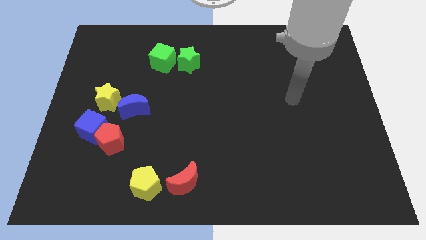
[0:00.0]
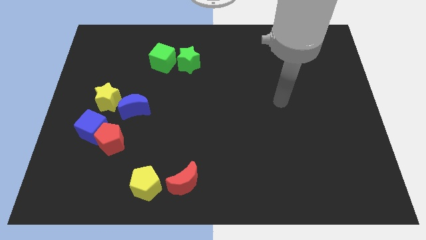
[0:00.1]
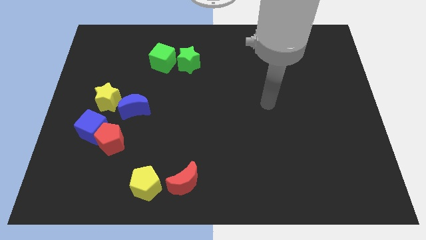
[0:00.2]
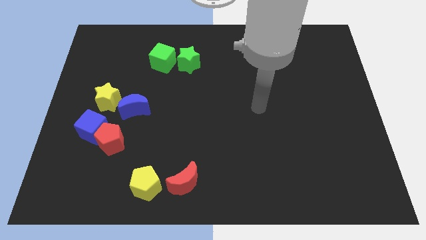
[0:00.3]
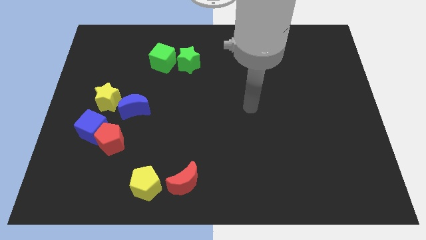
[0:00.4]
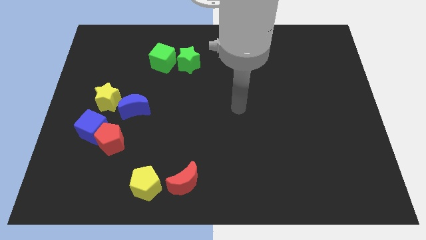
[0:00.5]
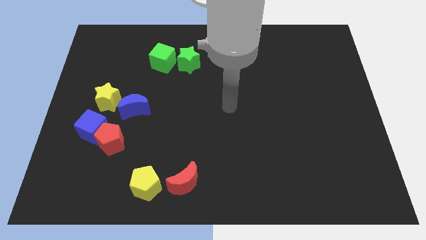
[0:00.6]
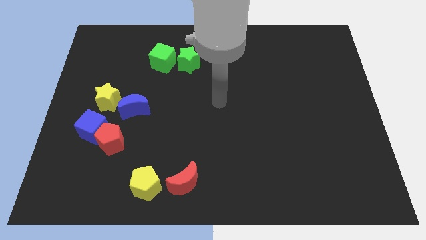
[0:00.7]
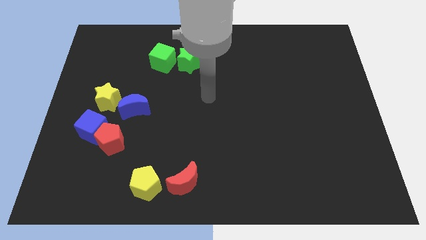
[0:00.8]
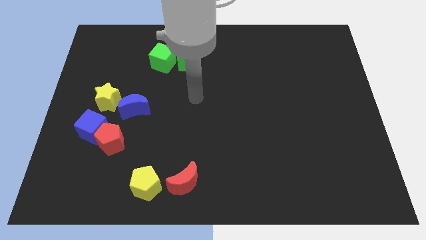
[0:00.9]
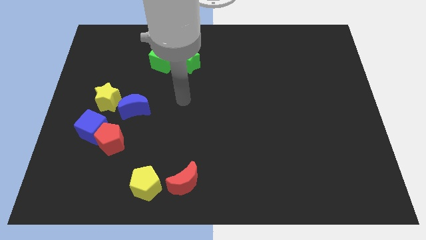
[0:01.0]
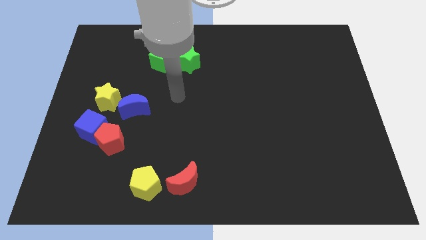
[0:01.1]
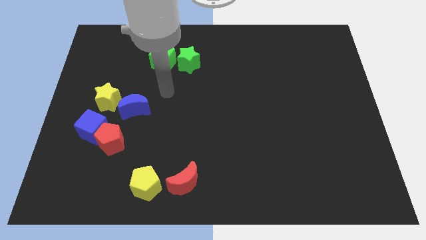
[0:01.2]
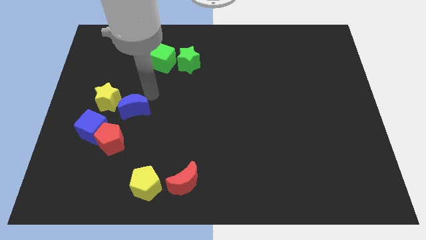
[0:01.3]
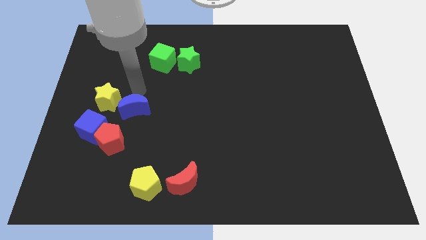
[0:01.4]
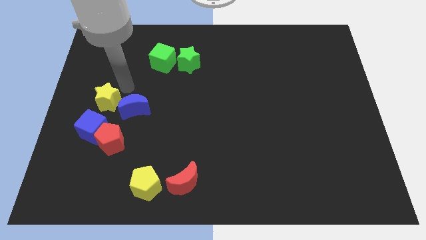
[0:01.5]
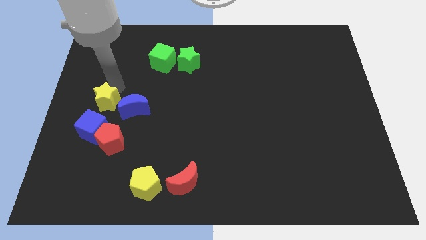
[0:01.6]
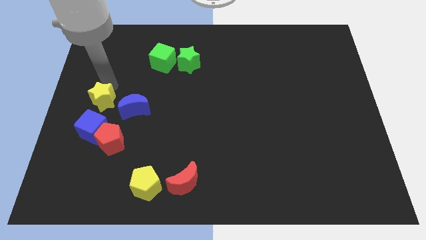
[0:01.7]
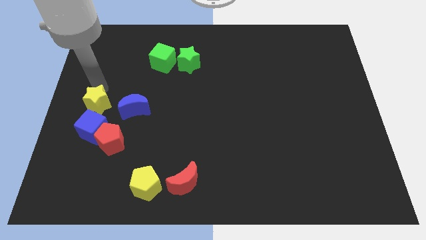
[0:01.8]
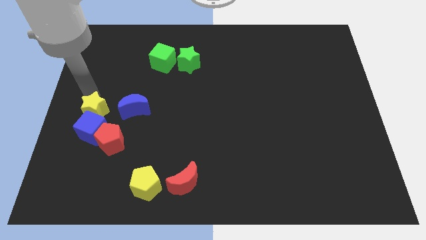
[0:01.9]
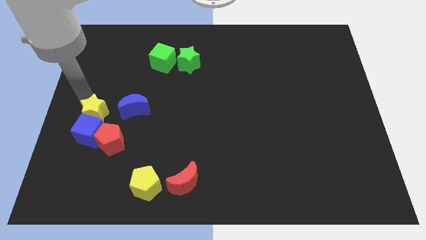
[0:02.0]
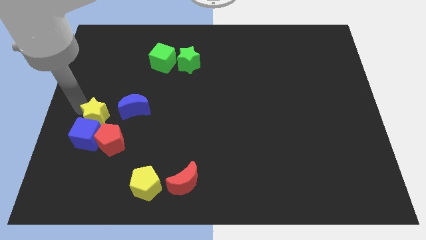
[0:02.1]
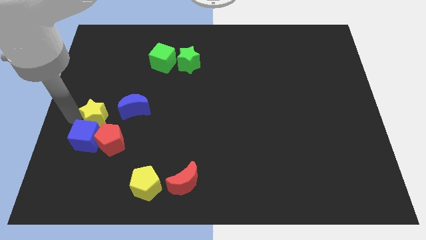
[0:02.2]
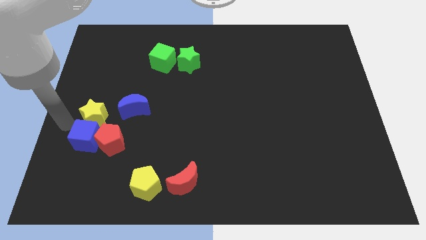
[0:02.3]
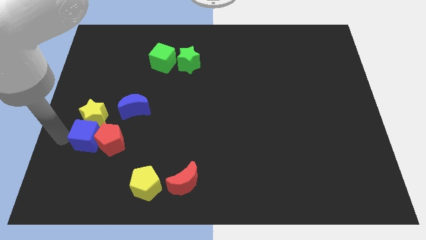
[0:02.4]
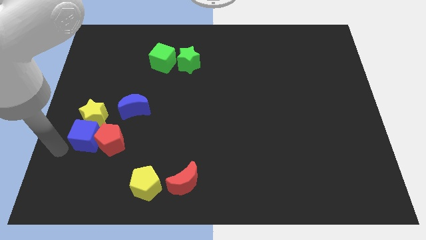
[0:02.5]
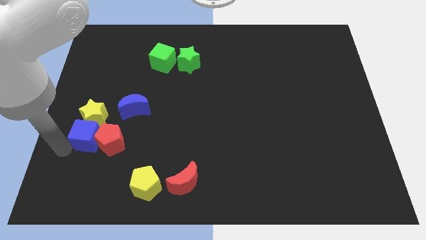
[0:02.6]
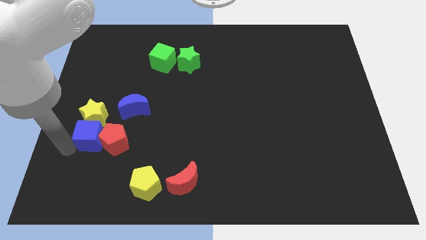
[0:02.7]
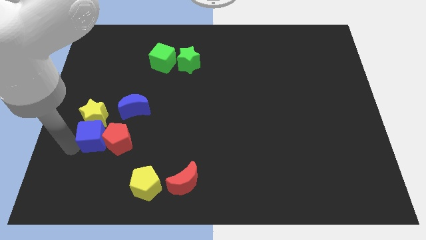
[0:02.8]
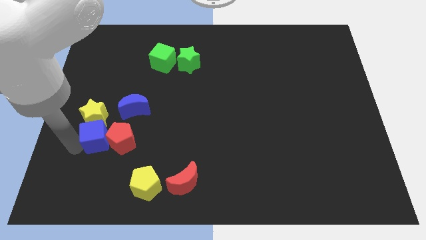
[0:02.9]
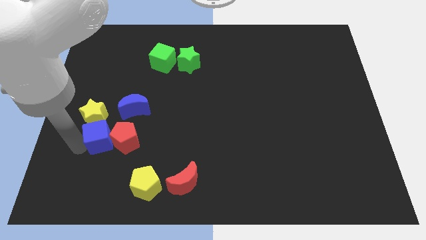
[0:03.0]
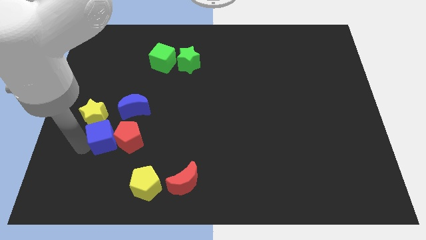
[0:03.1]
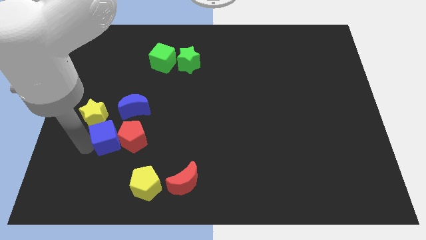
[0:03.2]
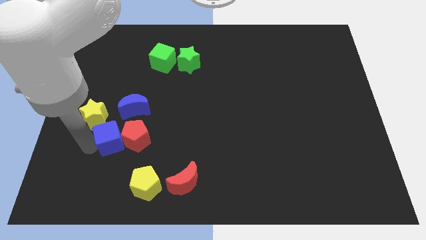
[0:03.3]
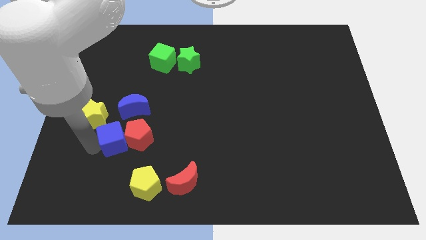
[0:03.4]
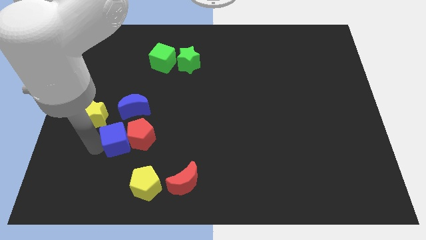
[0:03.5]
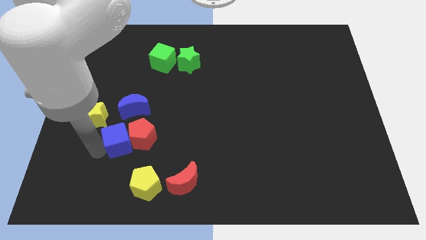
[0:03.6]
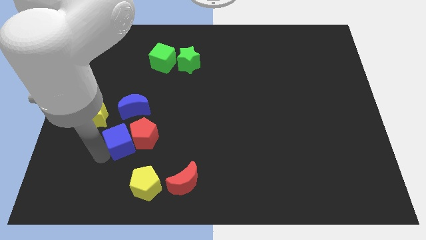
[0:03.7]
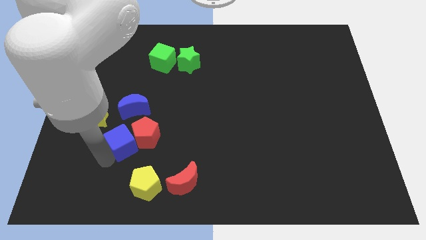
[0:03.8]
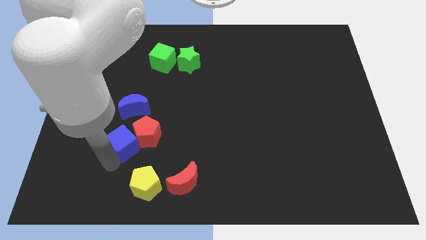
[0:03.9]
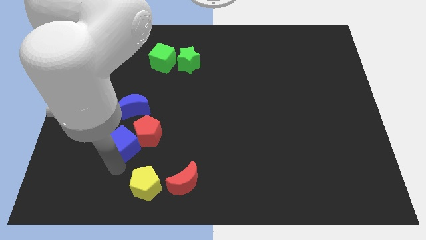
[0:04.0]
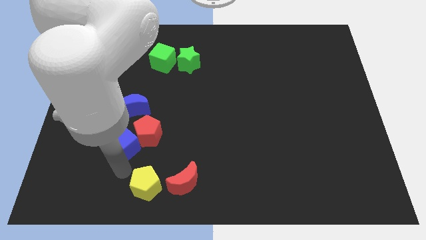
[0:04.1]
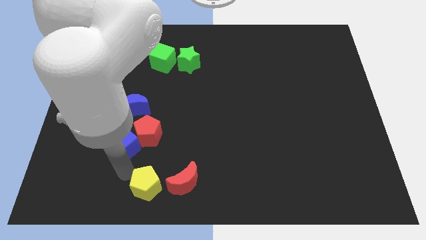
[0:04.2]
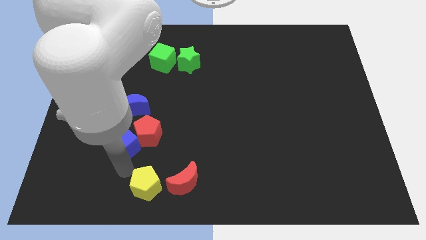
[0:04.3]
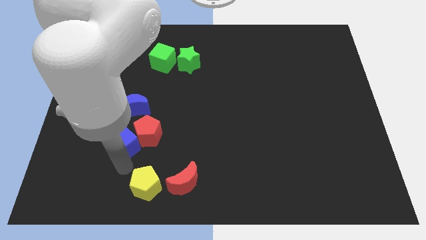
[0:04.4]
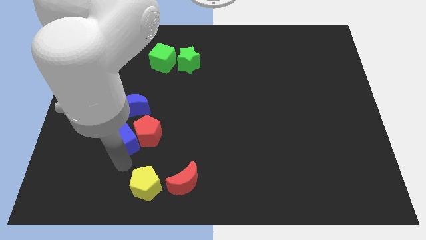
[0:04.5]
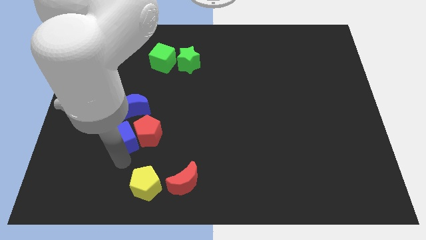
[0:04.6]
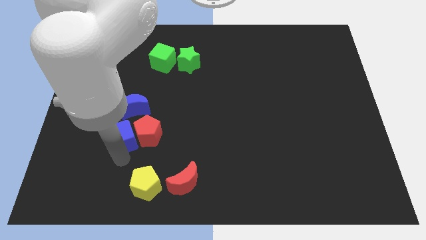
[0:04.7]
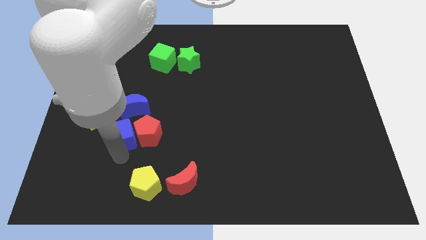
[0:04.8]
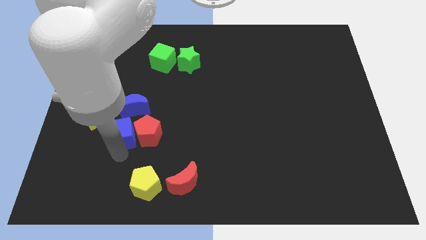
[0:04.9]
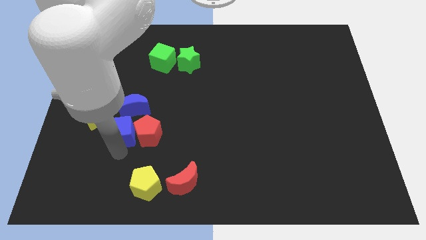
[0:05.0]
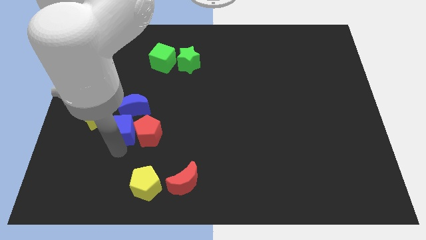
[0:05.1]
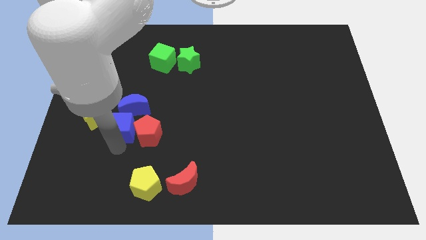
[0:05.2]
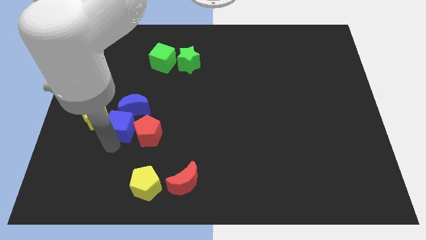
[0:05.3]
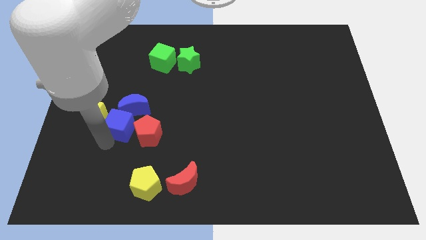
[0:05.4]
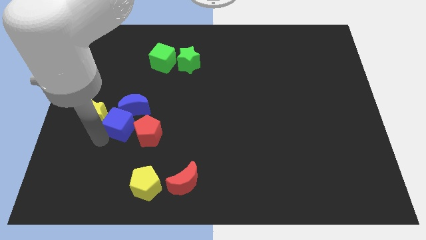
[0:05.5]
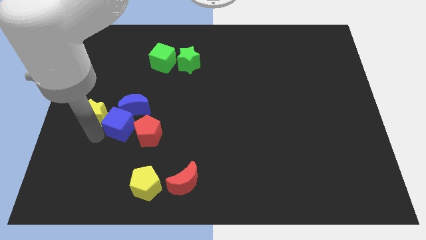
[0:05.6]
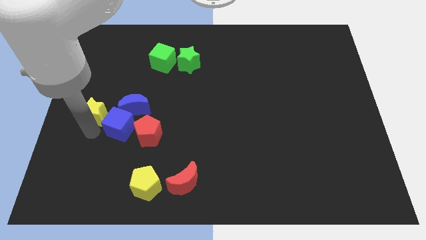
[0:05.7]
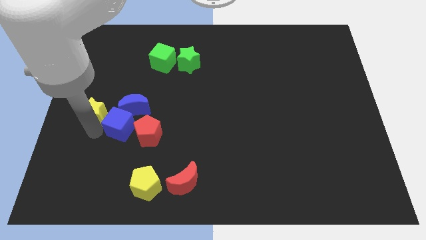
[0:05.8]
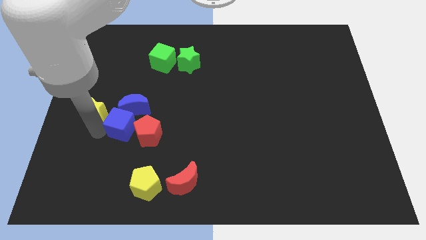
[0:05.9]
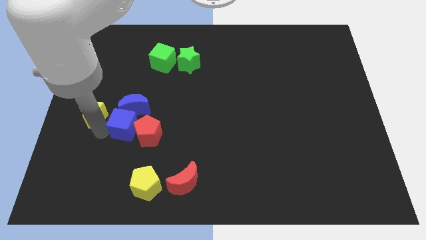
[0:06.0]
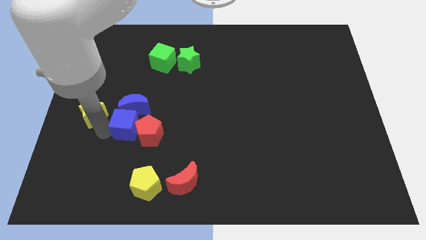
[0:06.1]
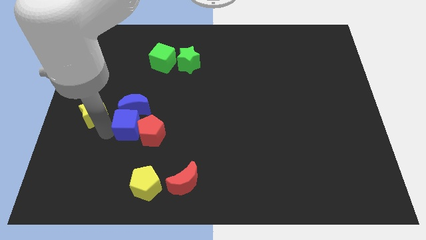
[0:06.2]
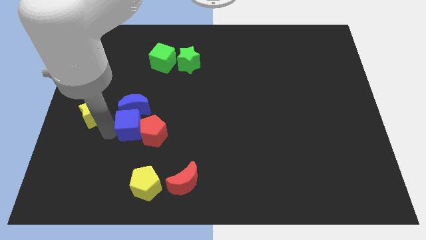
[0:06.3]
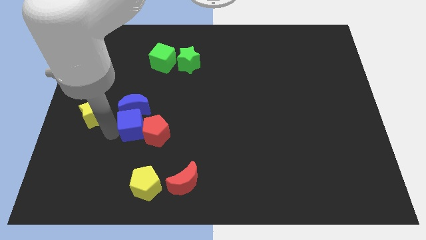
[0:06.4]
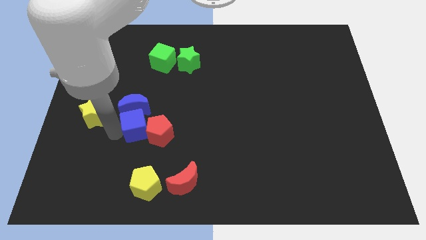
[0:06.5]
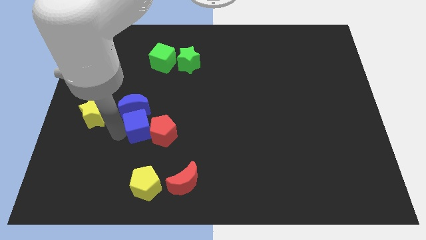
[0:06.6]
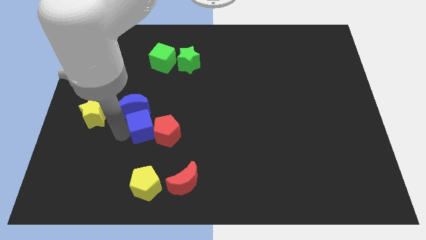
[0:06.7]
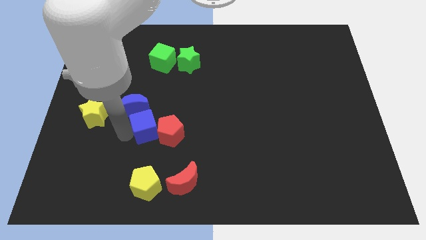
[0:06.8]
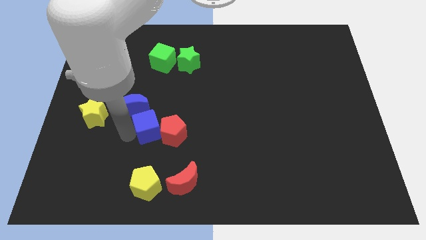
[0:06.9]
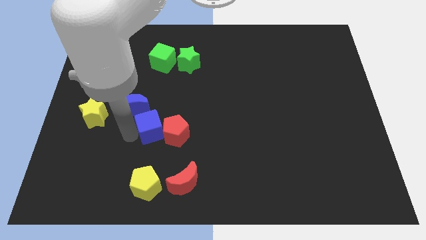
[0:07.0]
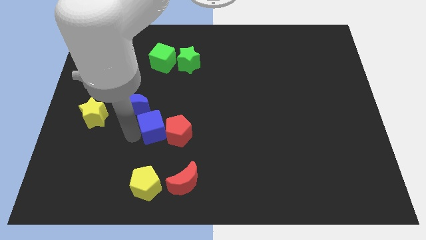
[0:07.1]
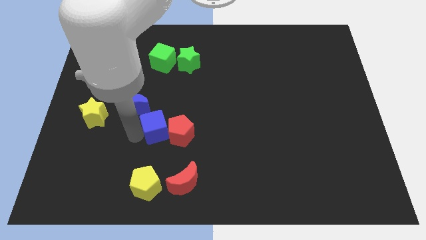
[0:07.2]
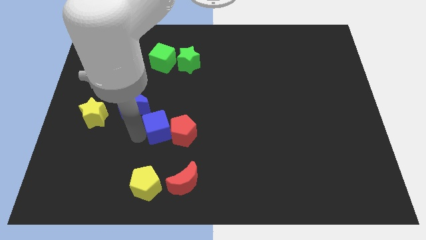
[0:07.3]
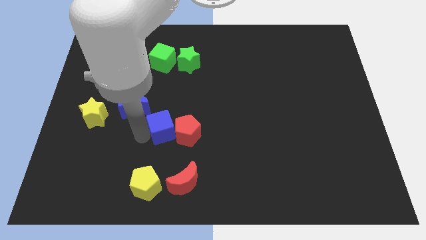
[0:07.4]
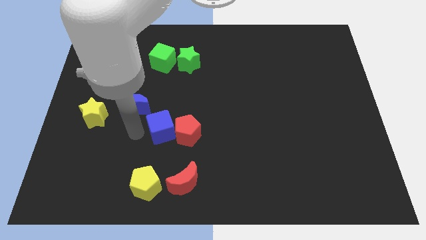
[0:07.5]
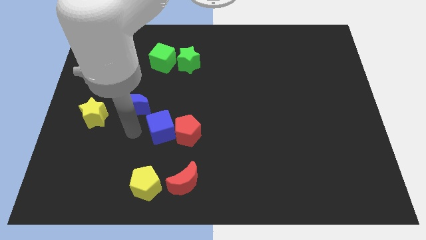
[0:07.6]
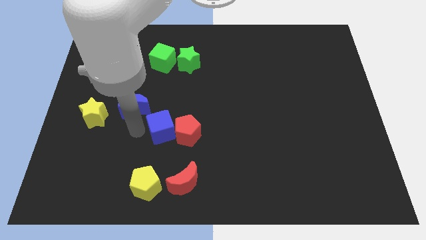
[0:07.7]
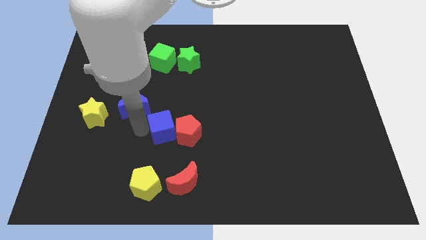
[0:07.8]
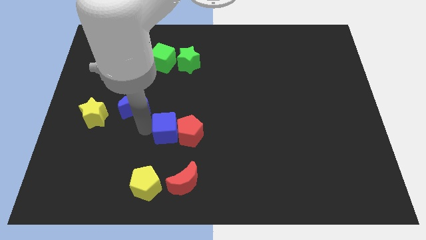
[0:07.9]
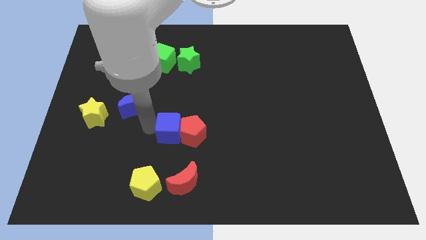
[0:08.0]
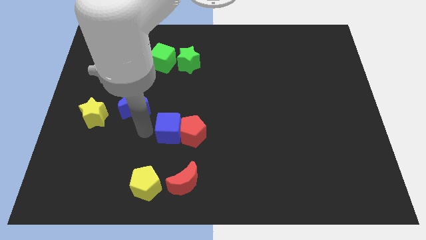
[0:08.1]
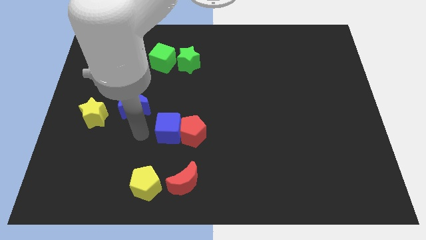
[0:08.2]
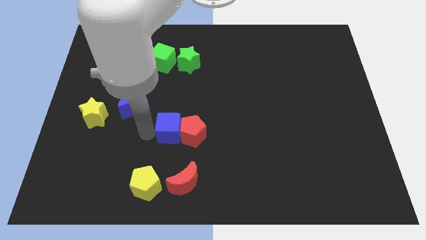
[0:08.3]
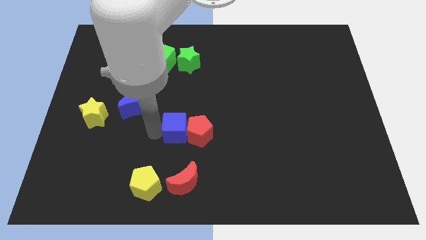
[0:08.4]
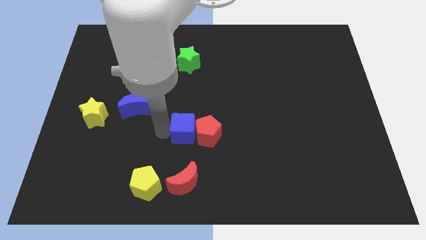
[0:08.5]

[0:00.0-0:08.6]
slide the blue cube right
